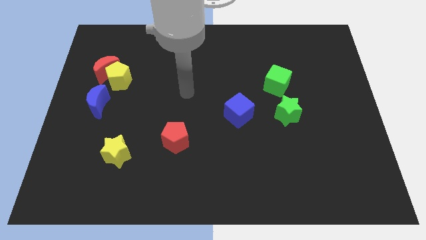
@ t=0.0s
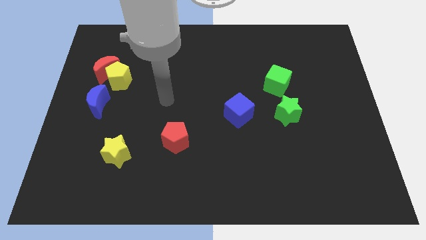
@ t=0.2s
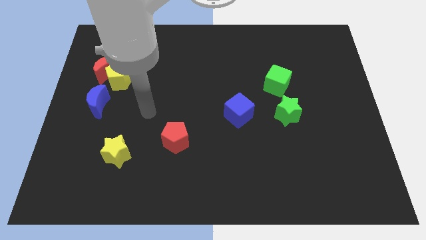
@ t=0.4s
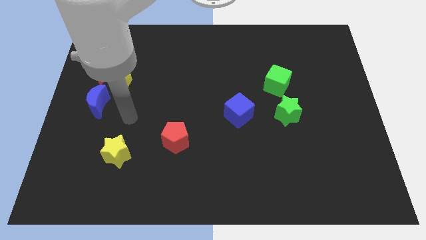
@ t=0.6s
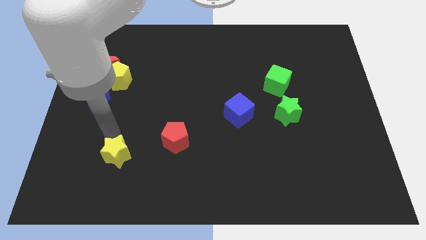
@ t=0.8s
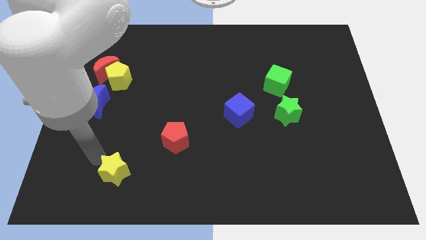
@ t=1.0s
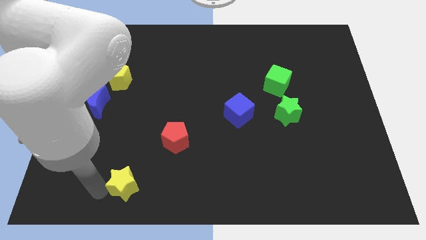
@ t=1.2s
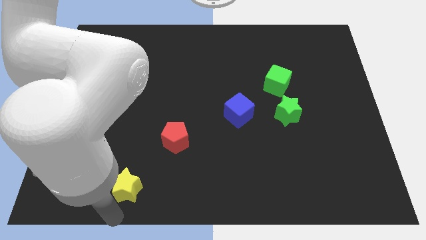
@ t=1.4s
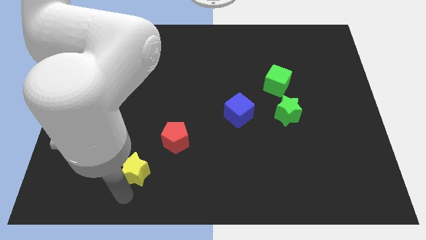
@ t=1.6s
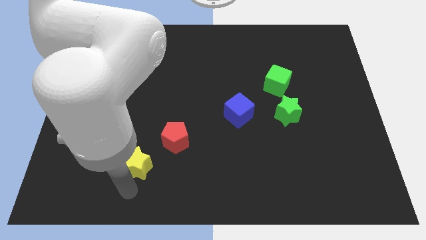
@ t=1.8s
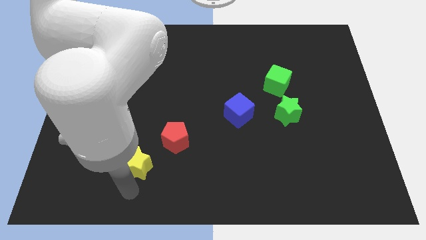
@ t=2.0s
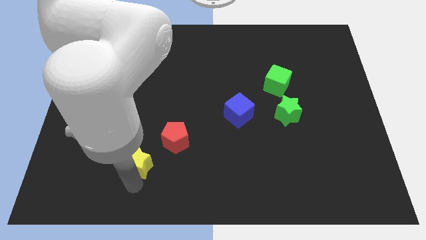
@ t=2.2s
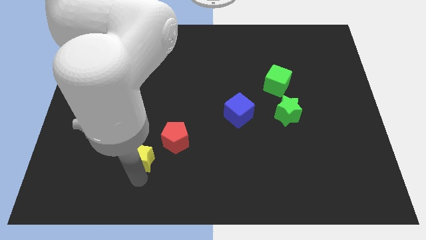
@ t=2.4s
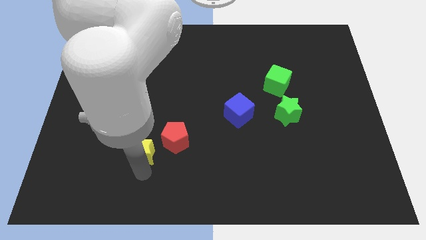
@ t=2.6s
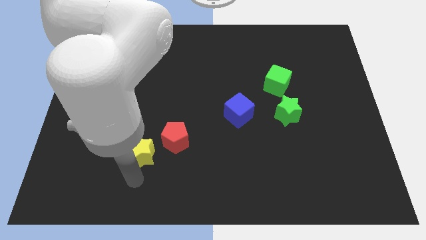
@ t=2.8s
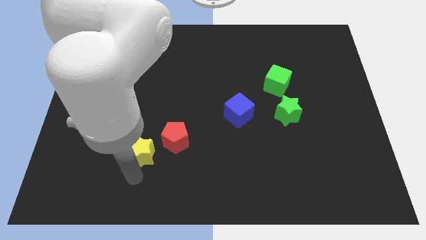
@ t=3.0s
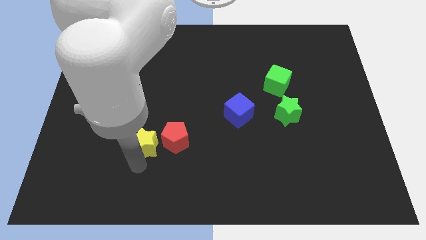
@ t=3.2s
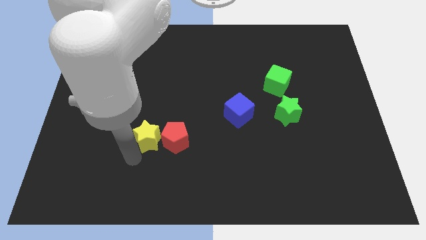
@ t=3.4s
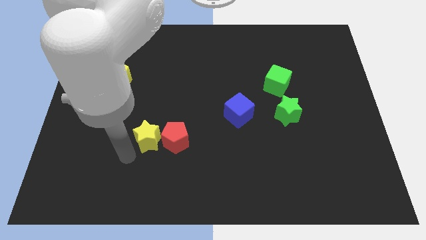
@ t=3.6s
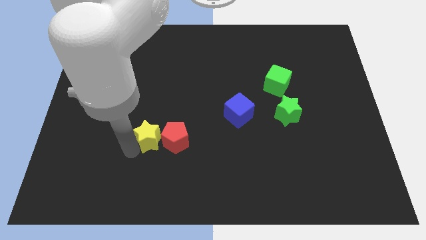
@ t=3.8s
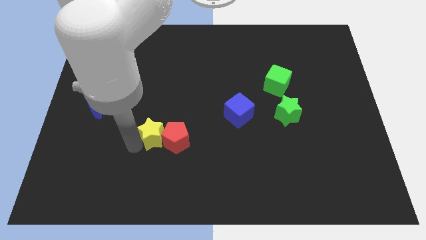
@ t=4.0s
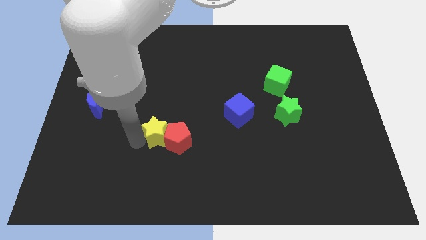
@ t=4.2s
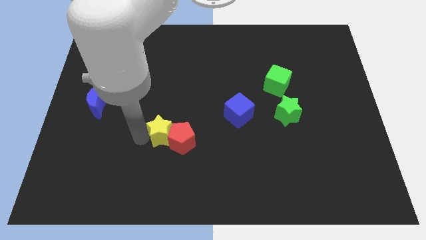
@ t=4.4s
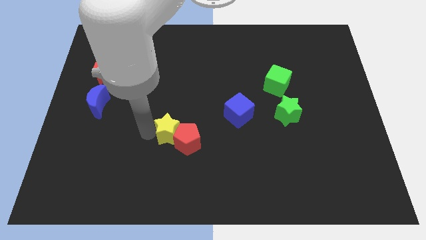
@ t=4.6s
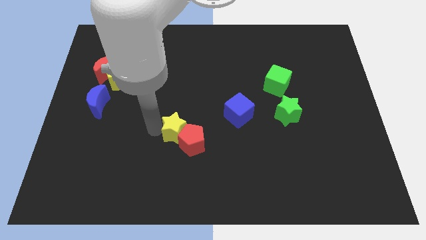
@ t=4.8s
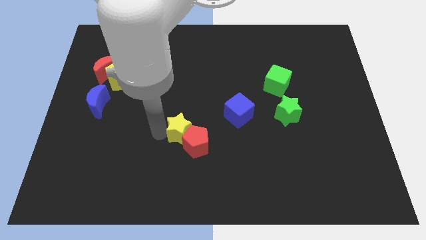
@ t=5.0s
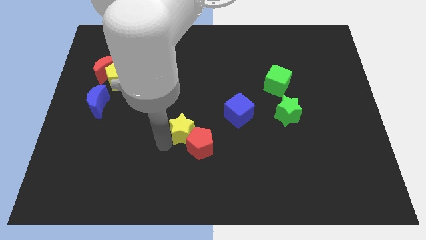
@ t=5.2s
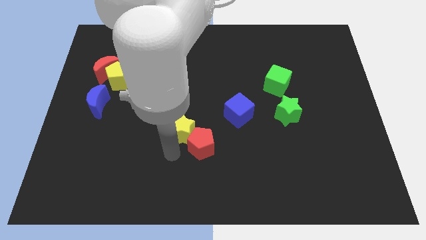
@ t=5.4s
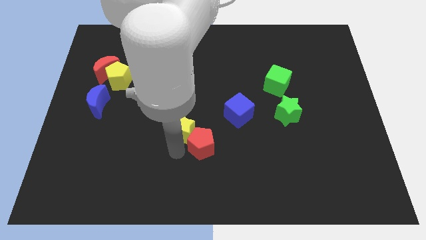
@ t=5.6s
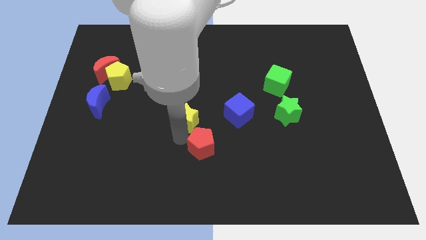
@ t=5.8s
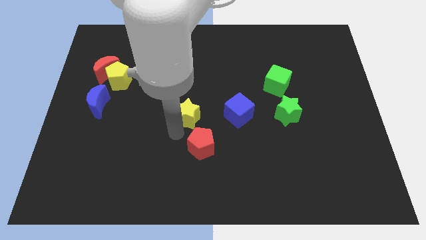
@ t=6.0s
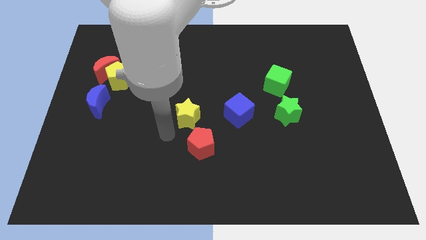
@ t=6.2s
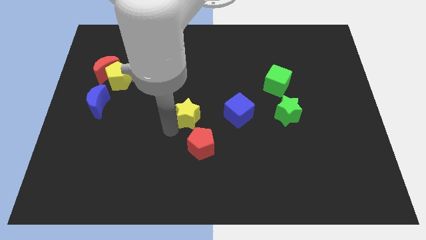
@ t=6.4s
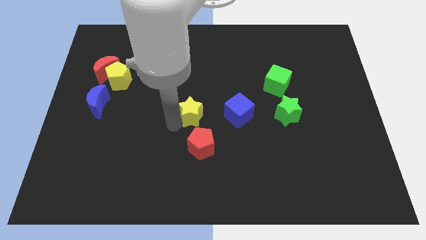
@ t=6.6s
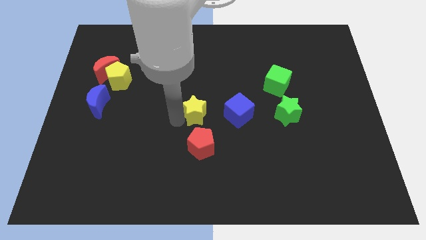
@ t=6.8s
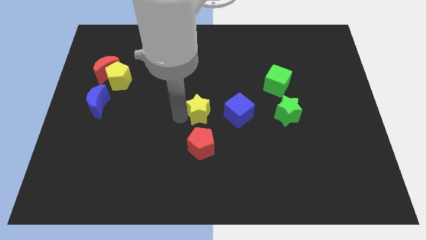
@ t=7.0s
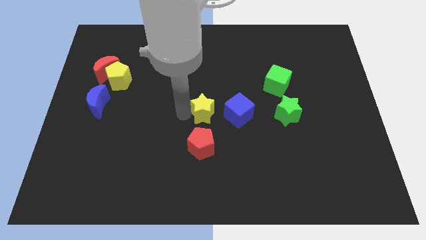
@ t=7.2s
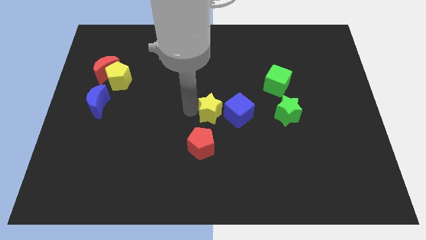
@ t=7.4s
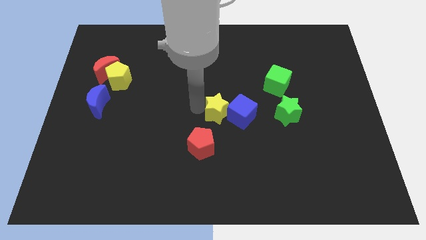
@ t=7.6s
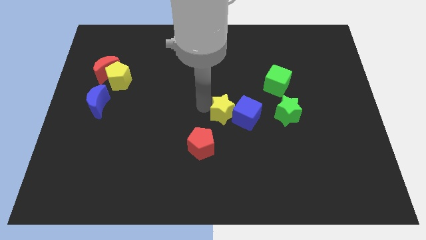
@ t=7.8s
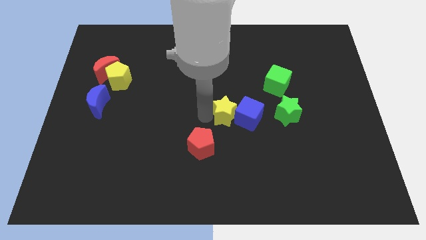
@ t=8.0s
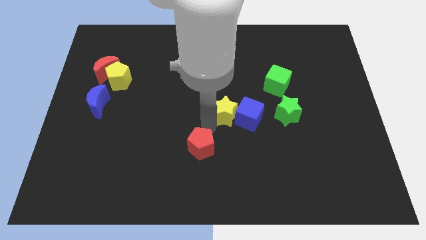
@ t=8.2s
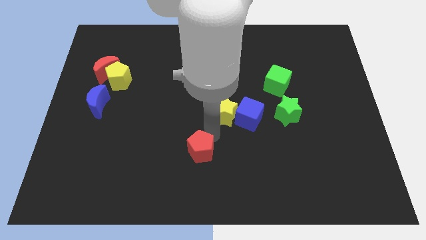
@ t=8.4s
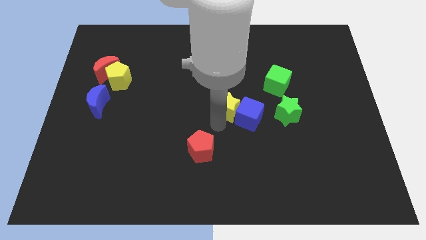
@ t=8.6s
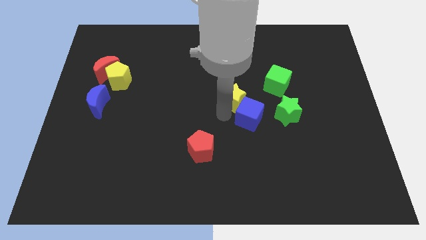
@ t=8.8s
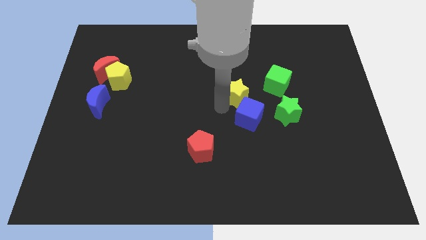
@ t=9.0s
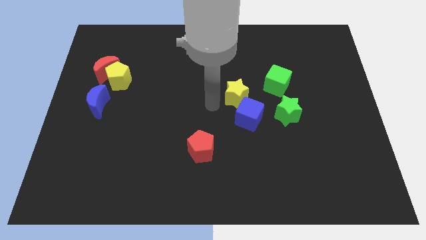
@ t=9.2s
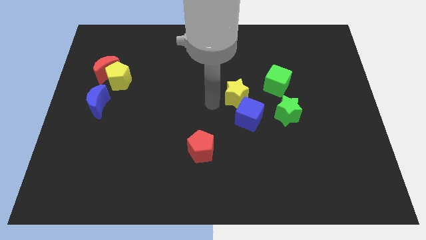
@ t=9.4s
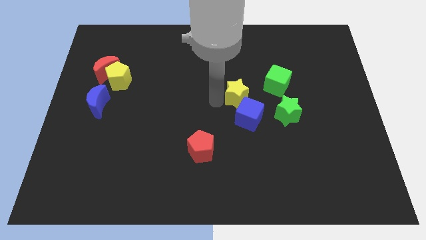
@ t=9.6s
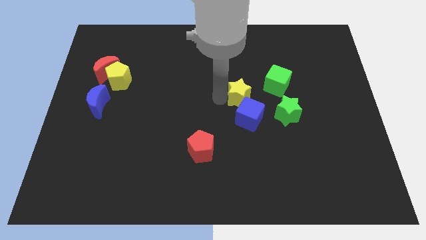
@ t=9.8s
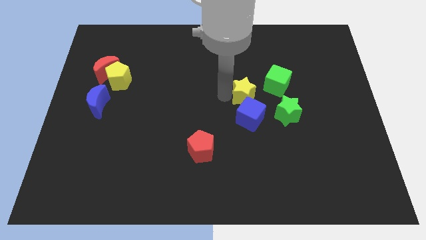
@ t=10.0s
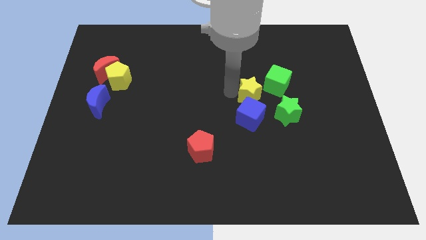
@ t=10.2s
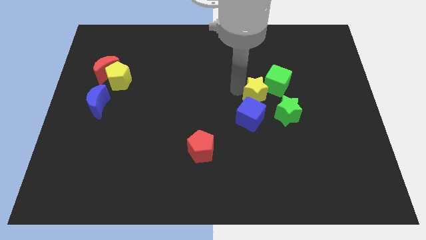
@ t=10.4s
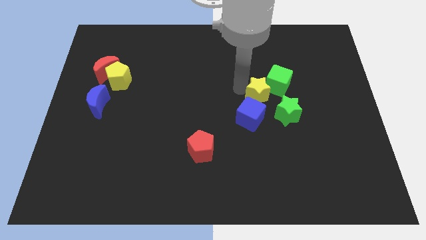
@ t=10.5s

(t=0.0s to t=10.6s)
slide the yellow star towards the green cube

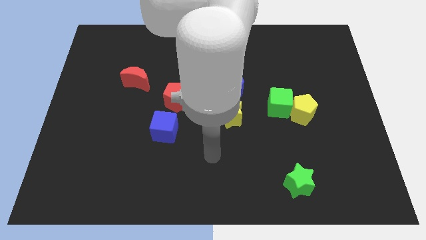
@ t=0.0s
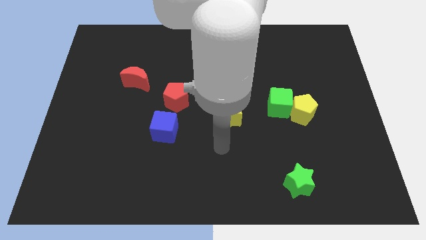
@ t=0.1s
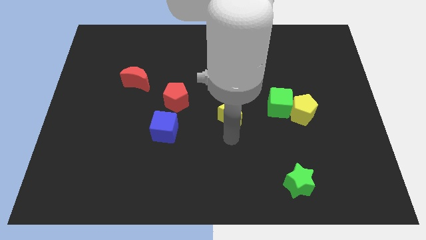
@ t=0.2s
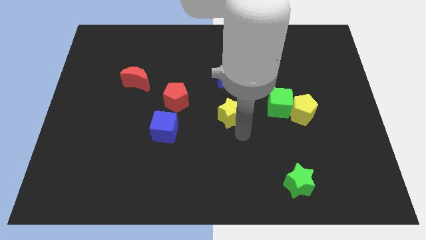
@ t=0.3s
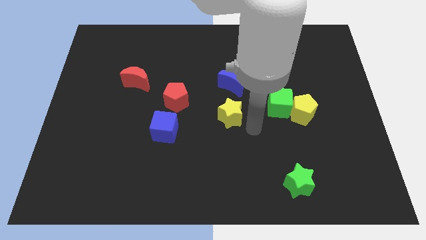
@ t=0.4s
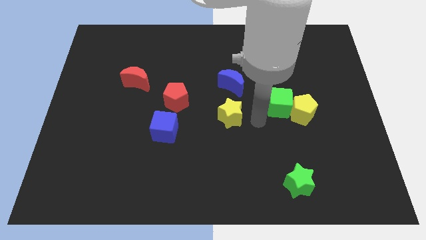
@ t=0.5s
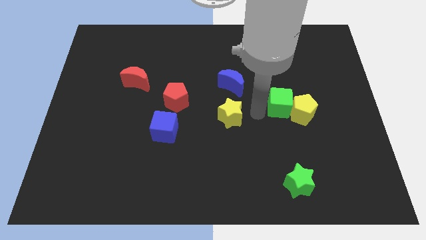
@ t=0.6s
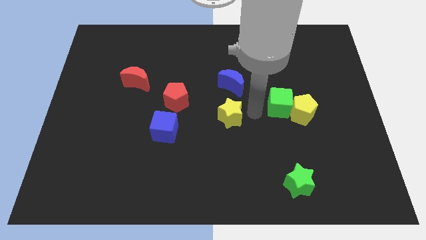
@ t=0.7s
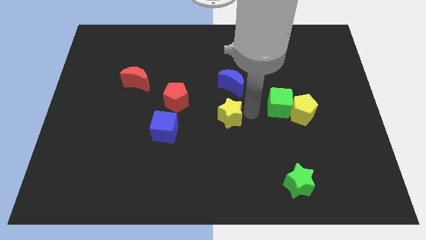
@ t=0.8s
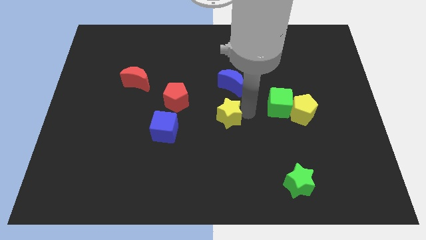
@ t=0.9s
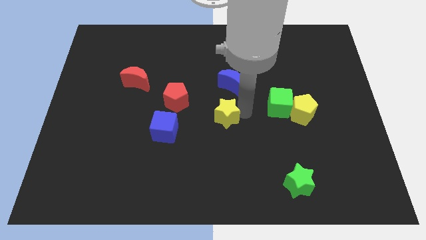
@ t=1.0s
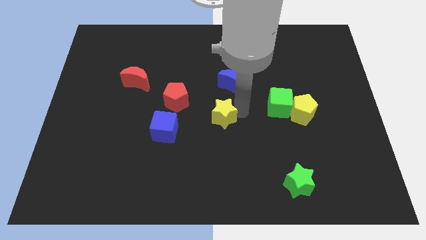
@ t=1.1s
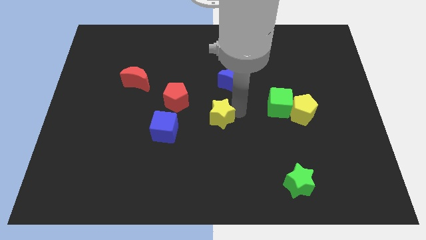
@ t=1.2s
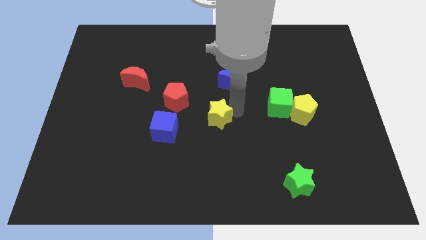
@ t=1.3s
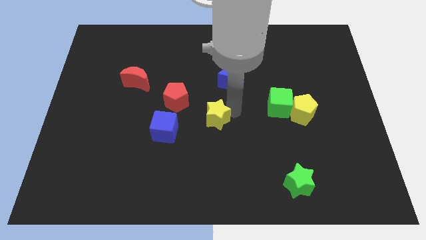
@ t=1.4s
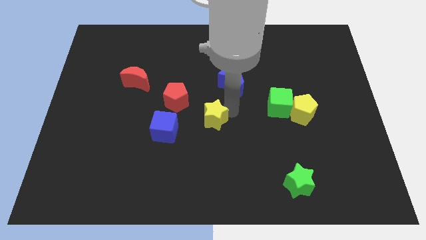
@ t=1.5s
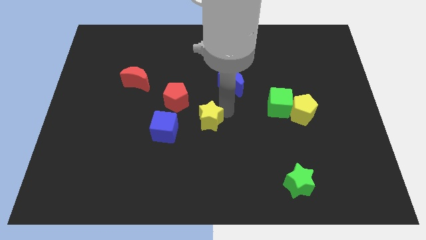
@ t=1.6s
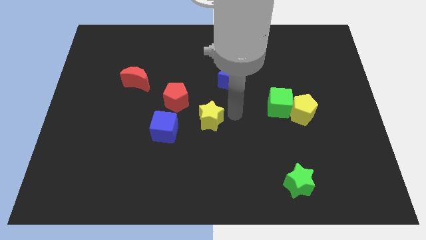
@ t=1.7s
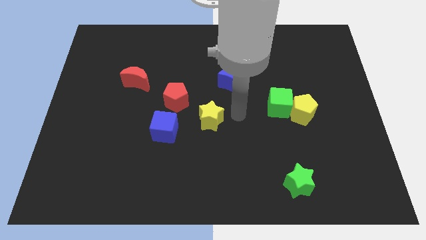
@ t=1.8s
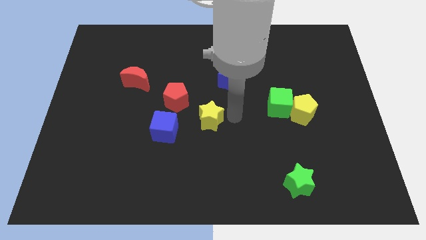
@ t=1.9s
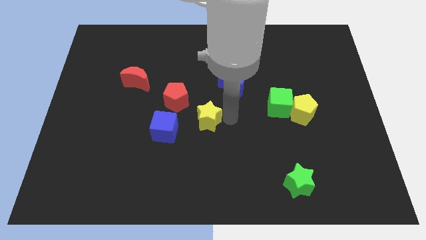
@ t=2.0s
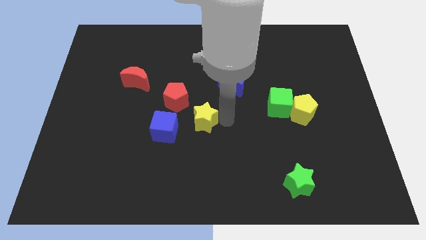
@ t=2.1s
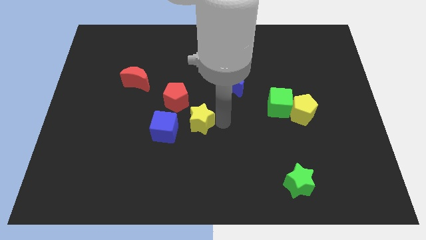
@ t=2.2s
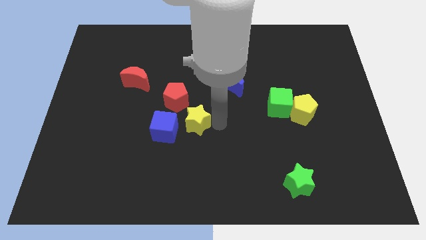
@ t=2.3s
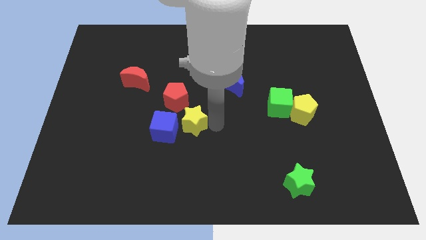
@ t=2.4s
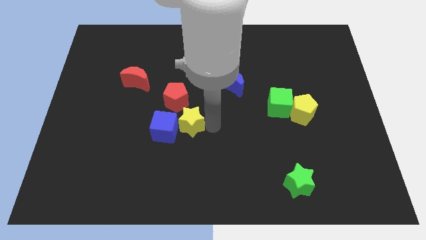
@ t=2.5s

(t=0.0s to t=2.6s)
slide the yellow star to the blue cube

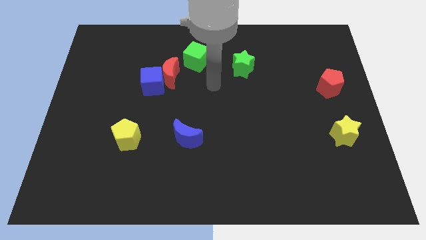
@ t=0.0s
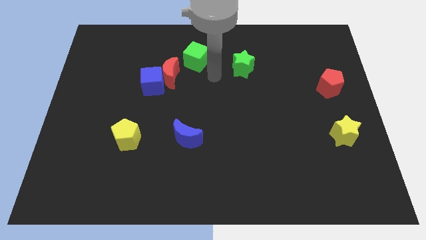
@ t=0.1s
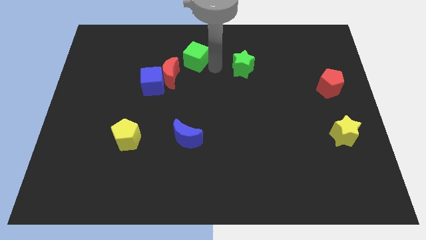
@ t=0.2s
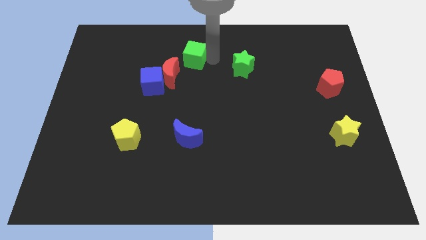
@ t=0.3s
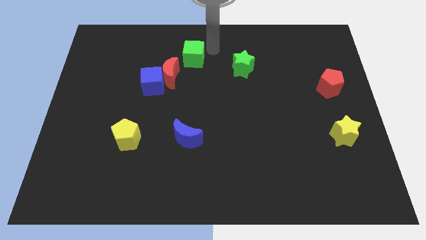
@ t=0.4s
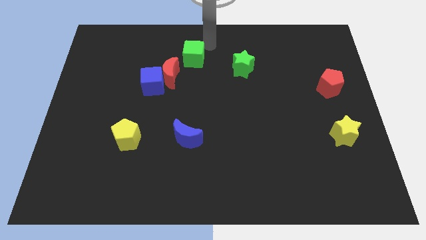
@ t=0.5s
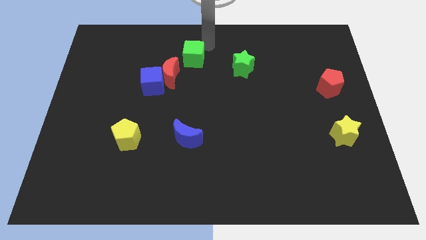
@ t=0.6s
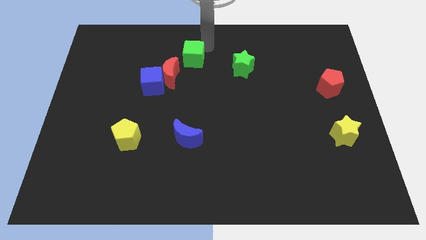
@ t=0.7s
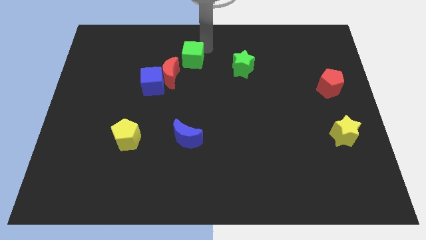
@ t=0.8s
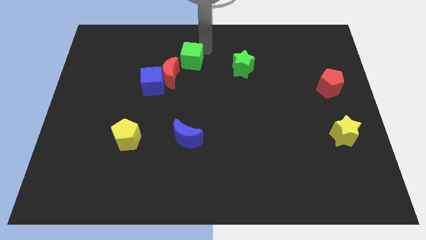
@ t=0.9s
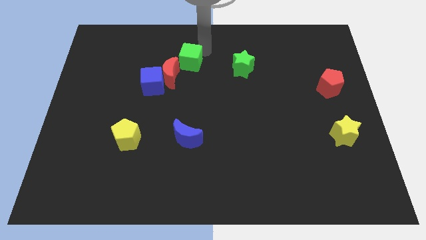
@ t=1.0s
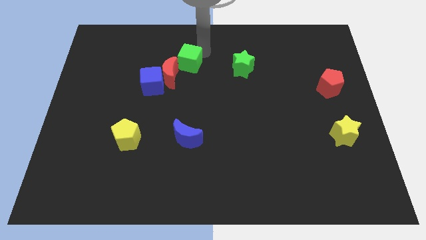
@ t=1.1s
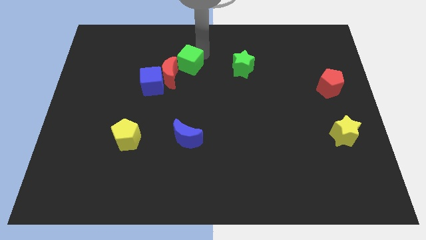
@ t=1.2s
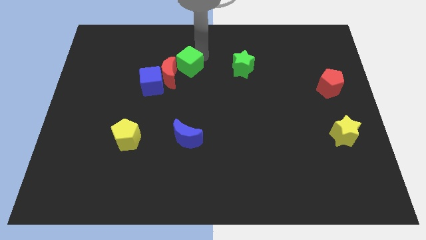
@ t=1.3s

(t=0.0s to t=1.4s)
move the green cube next to the red moon
